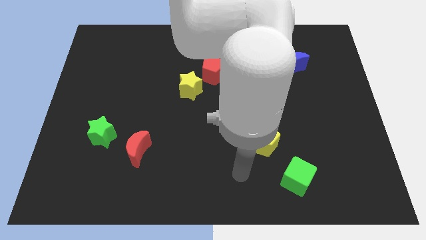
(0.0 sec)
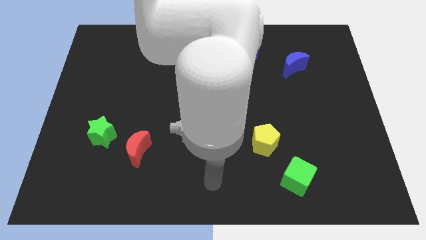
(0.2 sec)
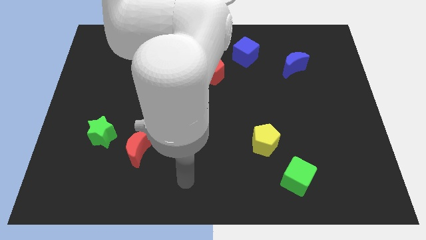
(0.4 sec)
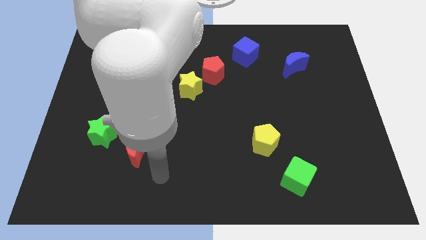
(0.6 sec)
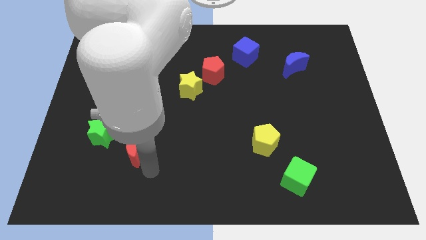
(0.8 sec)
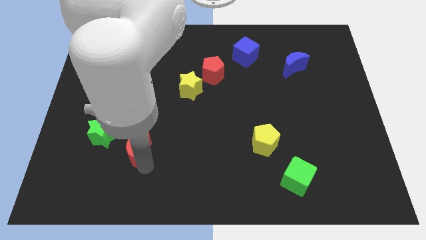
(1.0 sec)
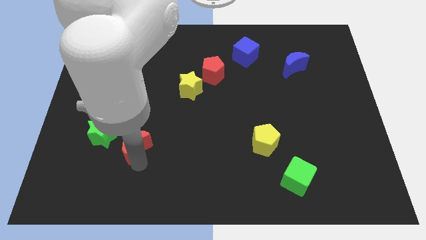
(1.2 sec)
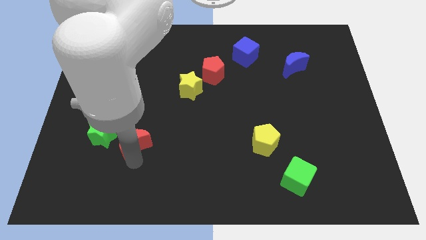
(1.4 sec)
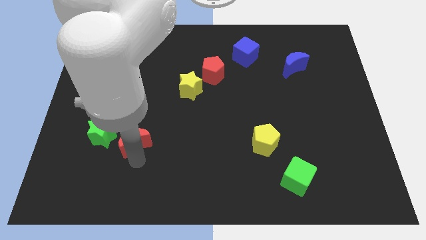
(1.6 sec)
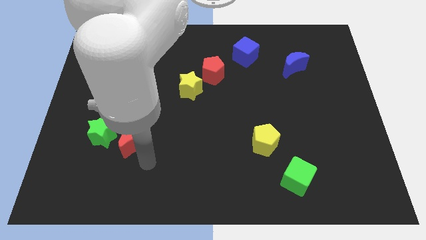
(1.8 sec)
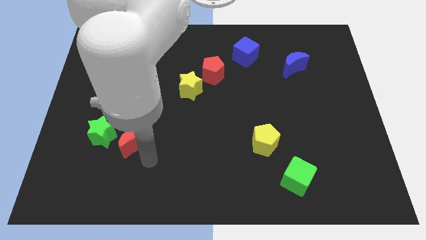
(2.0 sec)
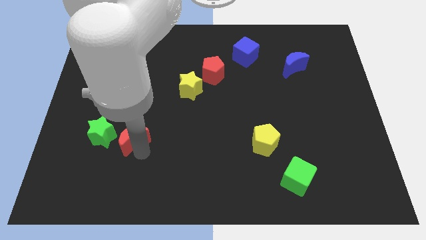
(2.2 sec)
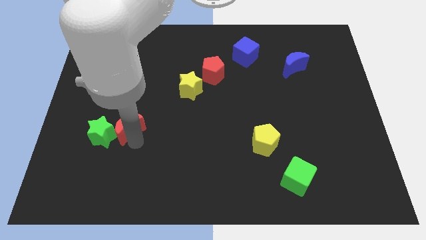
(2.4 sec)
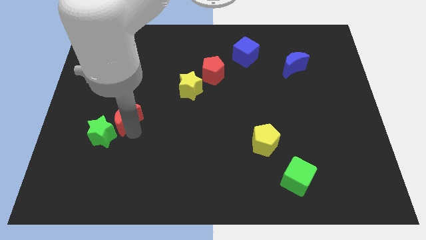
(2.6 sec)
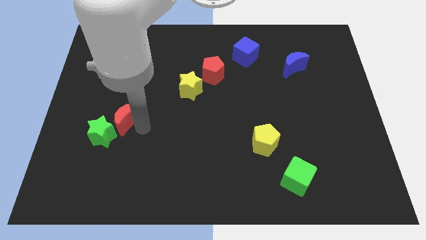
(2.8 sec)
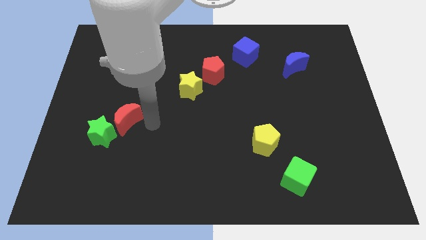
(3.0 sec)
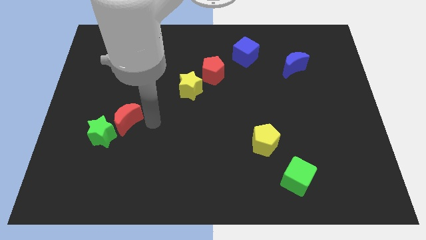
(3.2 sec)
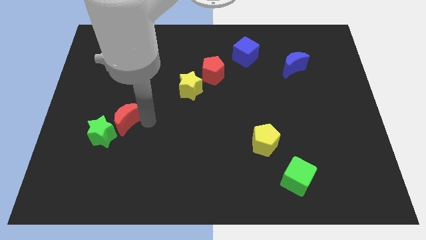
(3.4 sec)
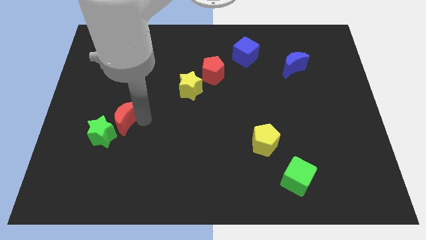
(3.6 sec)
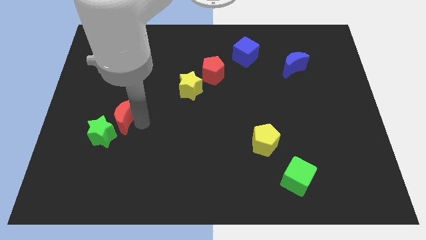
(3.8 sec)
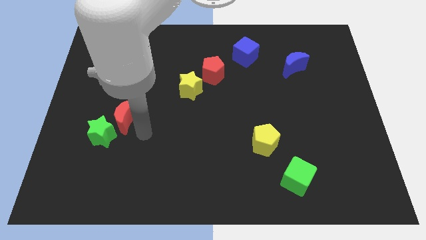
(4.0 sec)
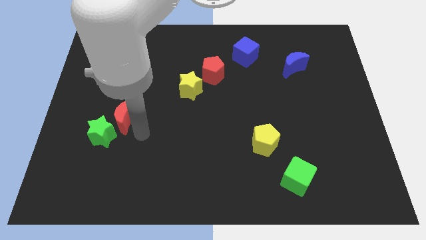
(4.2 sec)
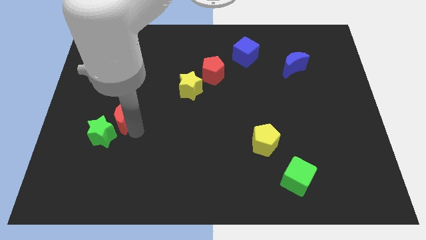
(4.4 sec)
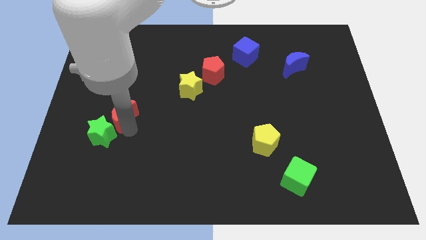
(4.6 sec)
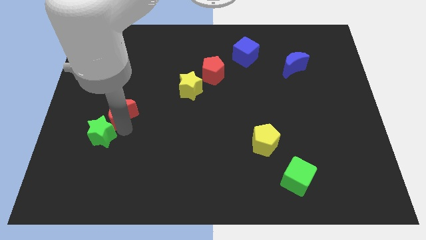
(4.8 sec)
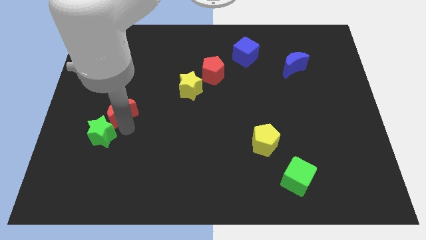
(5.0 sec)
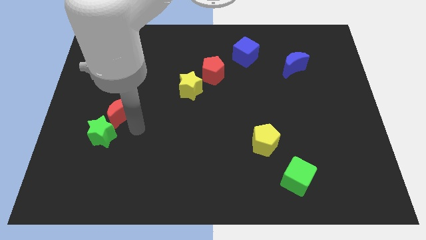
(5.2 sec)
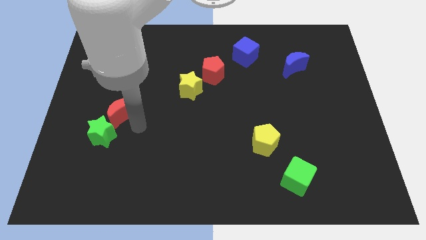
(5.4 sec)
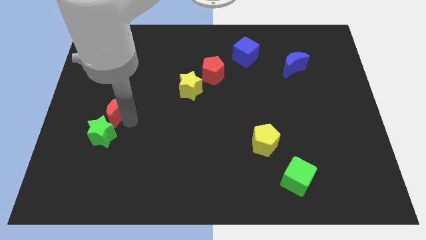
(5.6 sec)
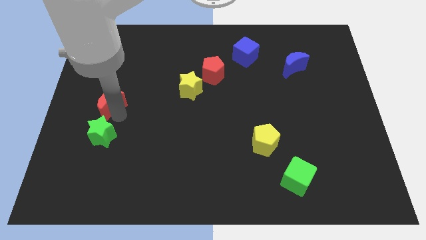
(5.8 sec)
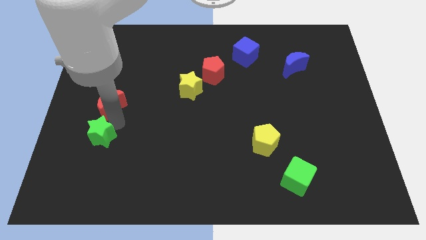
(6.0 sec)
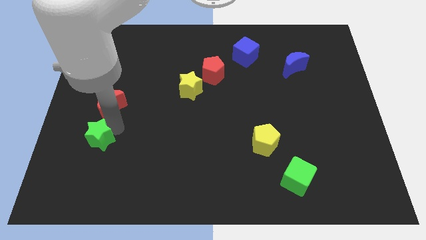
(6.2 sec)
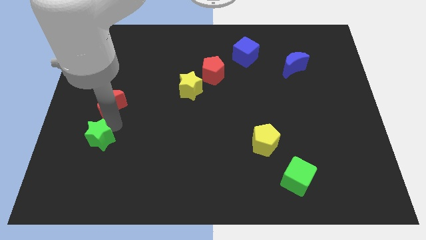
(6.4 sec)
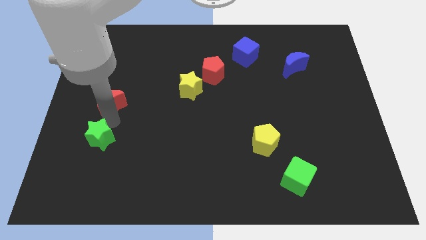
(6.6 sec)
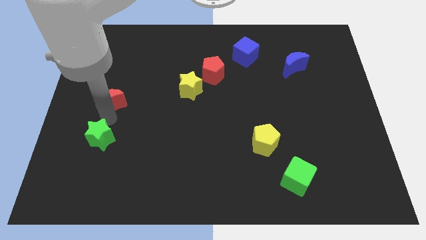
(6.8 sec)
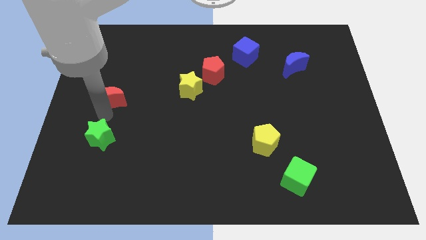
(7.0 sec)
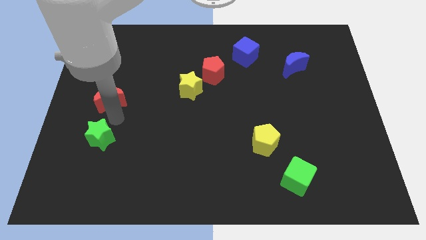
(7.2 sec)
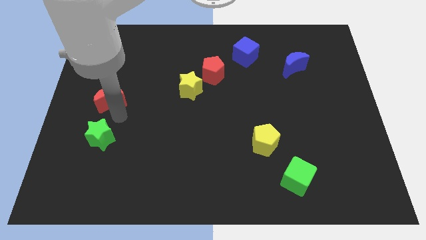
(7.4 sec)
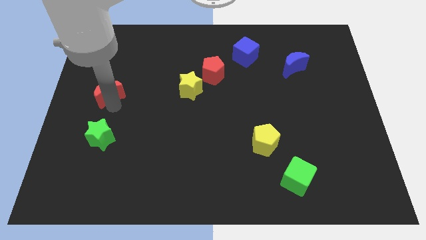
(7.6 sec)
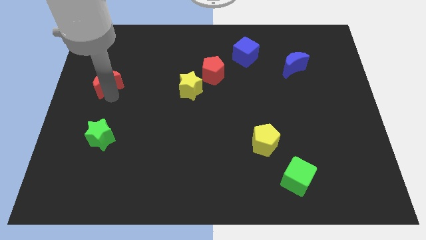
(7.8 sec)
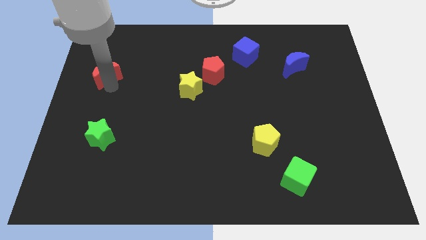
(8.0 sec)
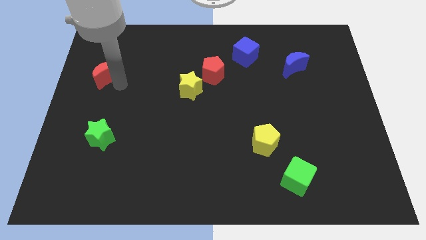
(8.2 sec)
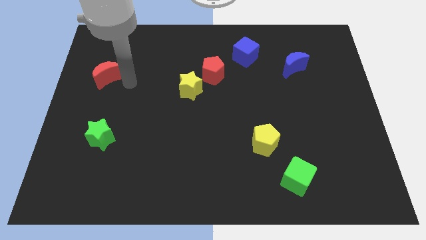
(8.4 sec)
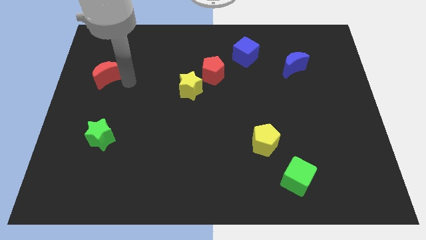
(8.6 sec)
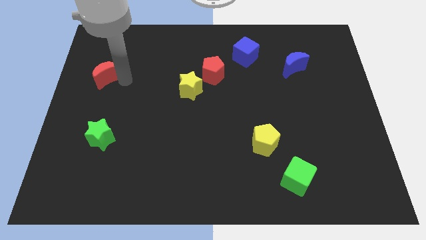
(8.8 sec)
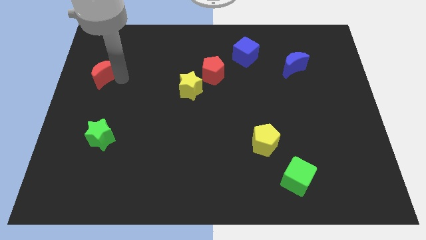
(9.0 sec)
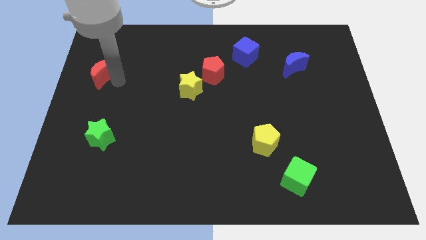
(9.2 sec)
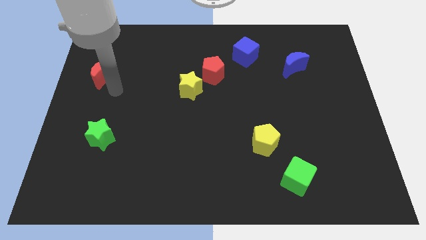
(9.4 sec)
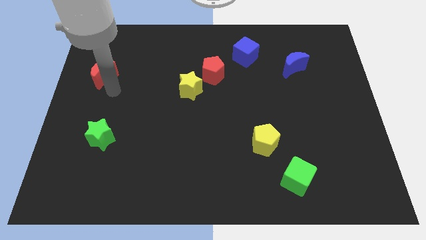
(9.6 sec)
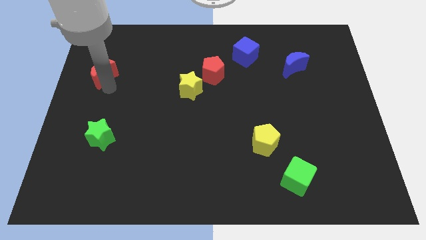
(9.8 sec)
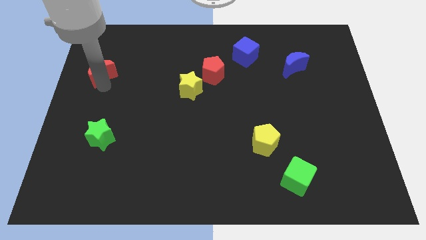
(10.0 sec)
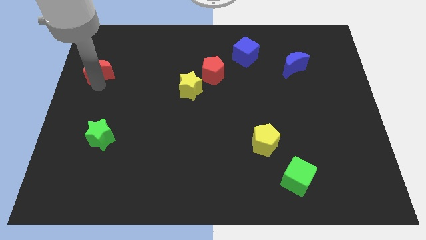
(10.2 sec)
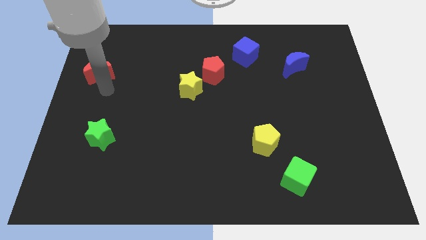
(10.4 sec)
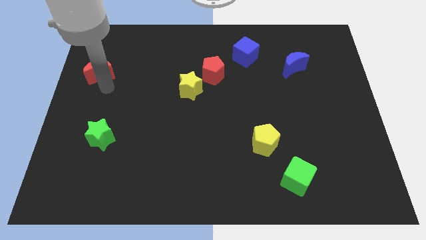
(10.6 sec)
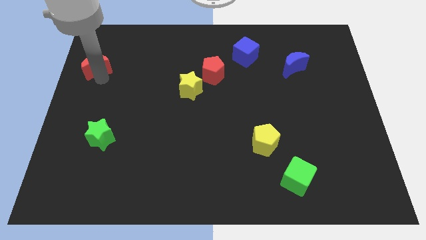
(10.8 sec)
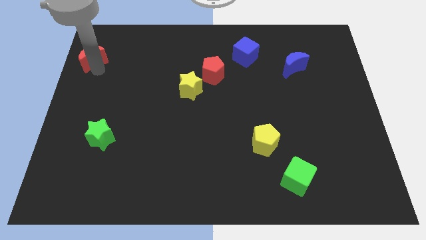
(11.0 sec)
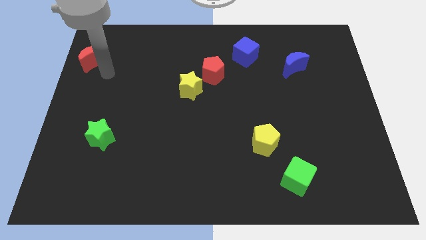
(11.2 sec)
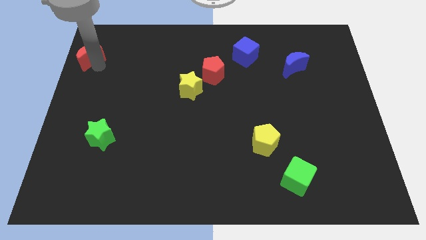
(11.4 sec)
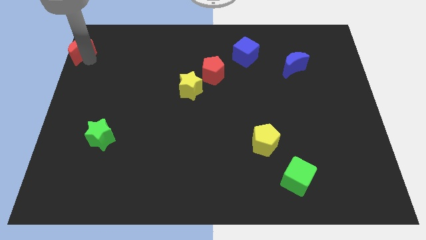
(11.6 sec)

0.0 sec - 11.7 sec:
put the red moon to the top left

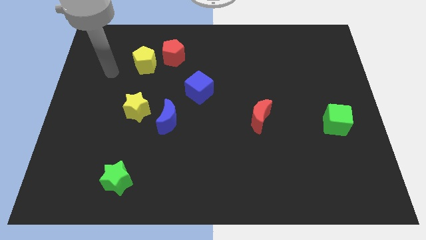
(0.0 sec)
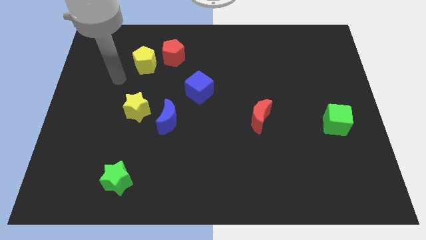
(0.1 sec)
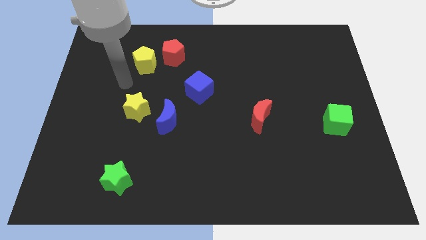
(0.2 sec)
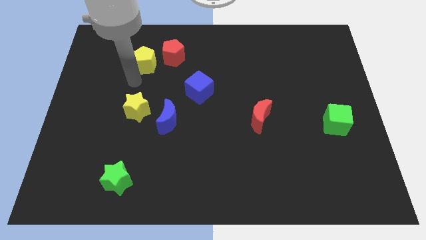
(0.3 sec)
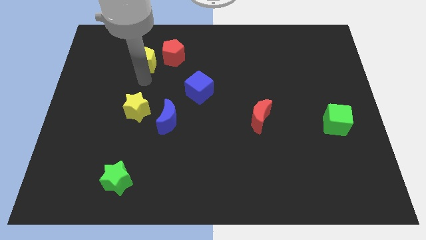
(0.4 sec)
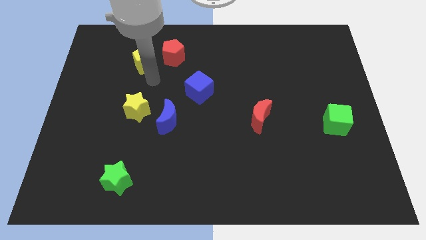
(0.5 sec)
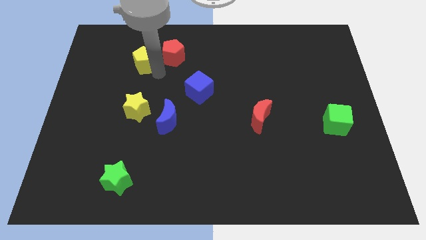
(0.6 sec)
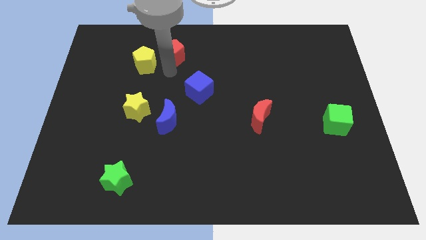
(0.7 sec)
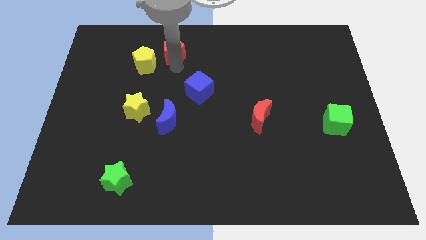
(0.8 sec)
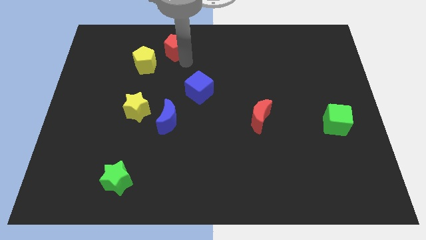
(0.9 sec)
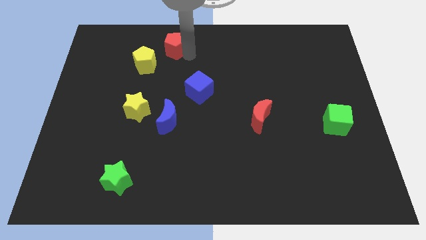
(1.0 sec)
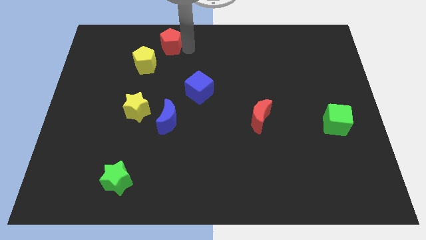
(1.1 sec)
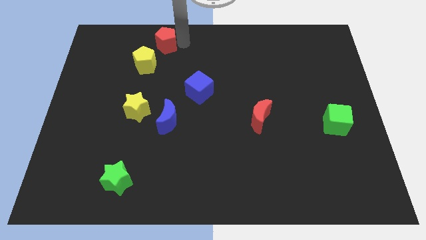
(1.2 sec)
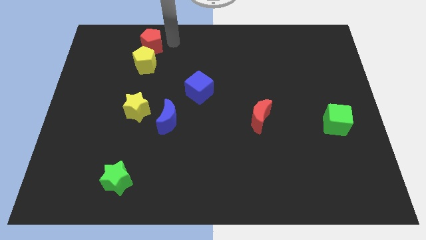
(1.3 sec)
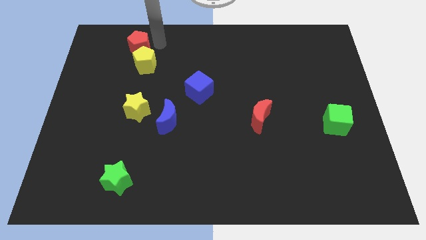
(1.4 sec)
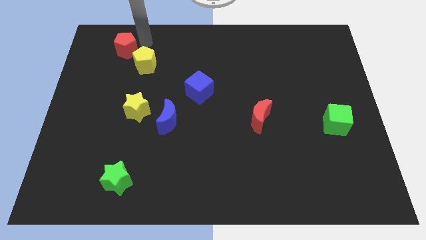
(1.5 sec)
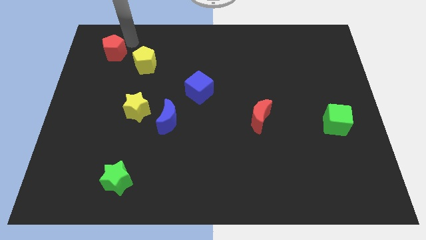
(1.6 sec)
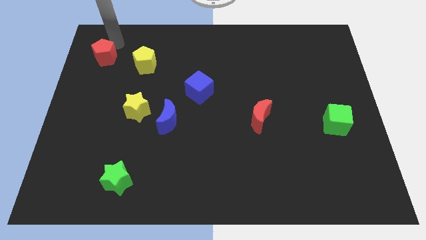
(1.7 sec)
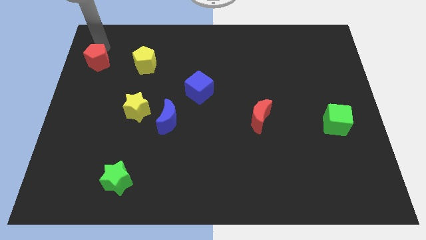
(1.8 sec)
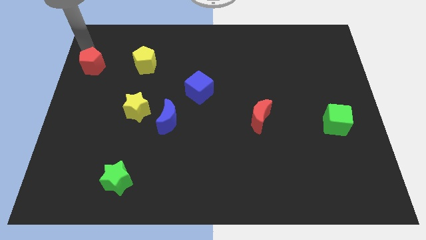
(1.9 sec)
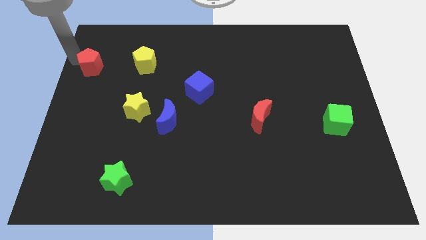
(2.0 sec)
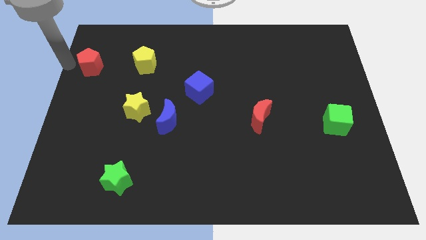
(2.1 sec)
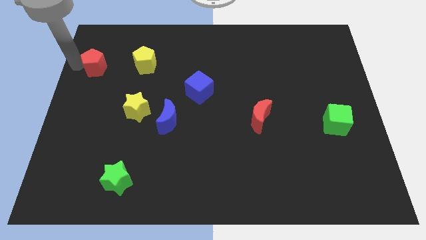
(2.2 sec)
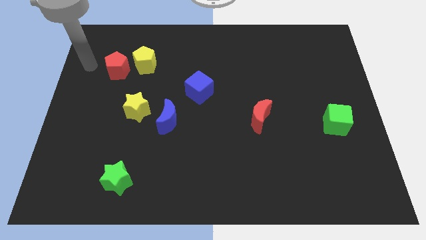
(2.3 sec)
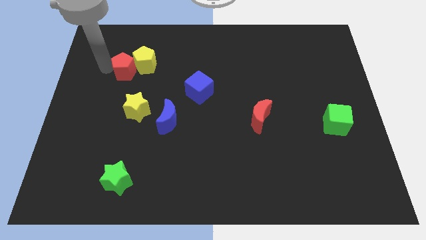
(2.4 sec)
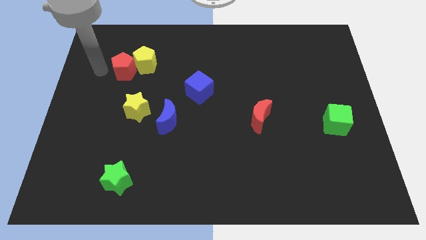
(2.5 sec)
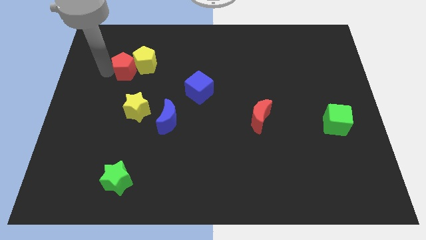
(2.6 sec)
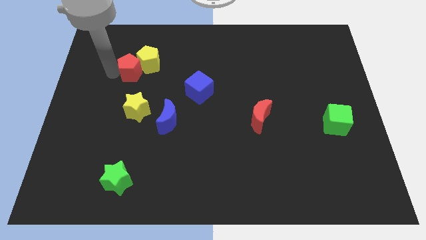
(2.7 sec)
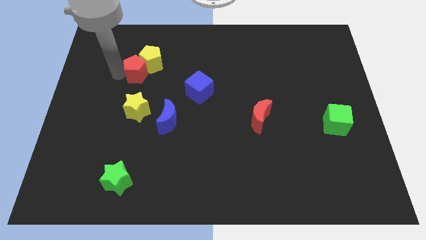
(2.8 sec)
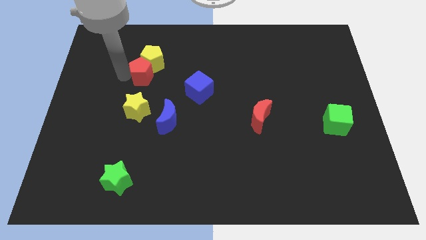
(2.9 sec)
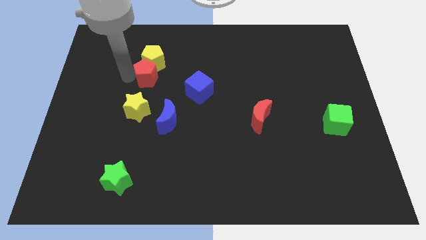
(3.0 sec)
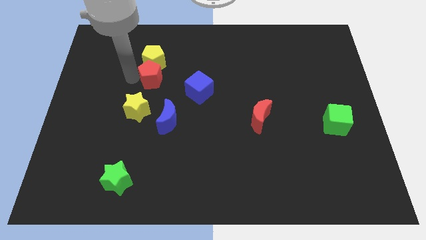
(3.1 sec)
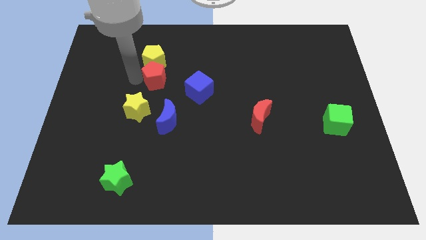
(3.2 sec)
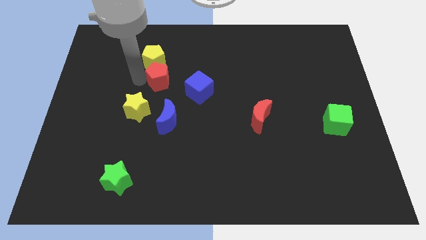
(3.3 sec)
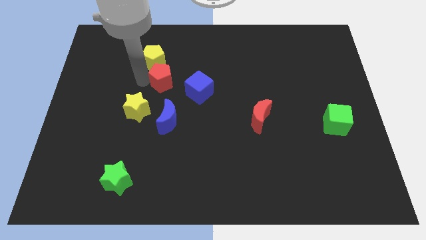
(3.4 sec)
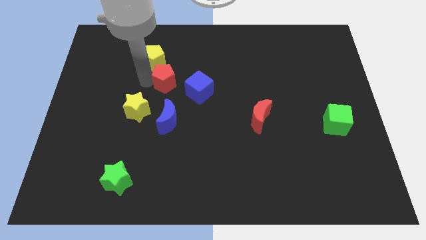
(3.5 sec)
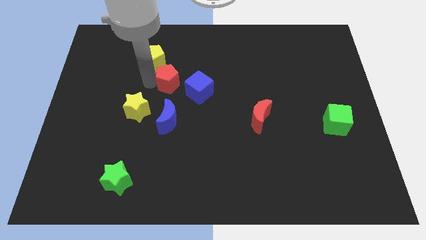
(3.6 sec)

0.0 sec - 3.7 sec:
slide the red pentagon to the middle of the board
